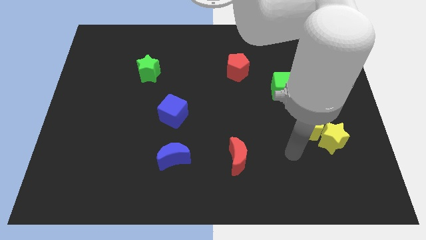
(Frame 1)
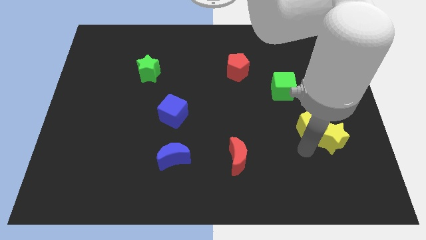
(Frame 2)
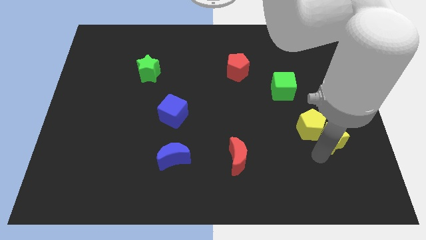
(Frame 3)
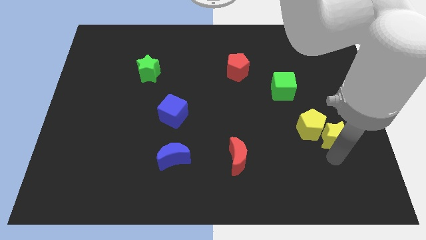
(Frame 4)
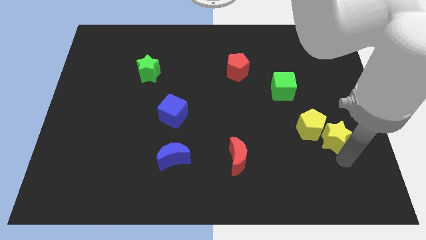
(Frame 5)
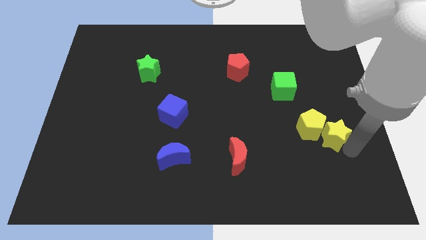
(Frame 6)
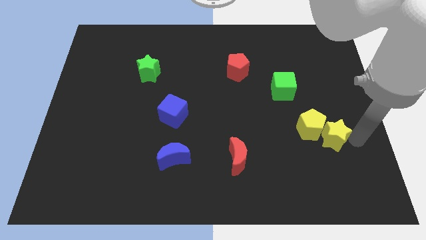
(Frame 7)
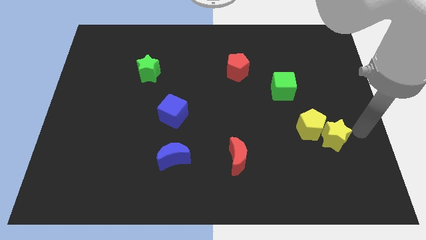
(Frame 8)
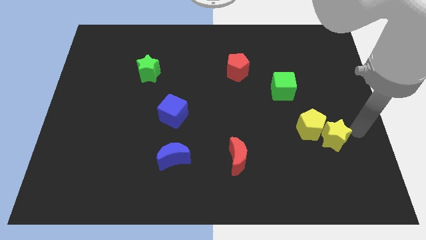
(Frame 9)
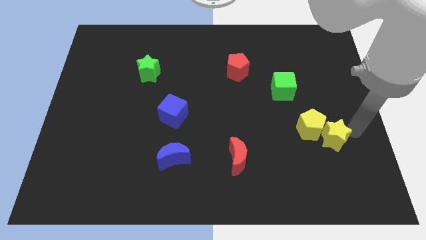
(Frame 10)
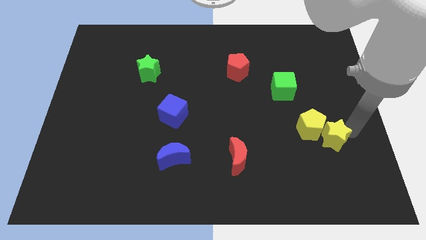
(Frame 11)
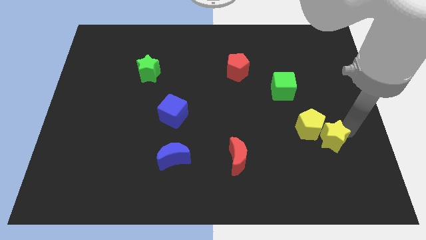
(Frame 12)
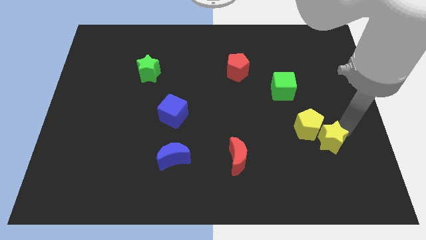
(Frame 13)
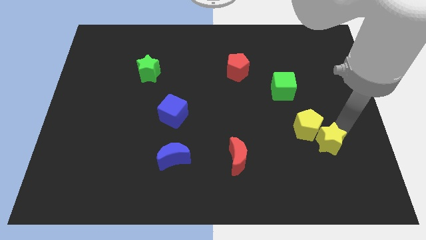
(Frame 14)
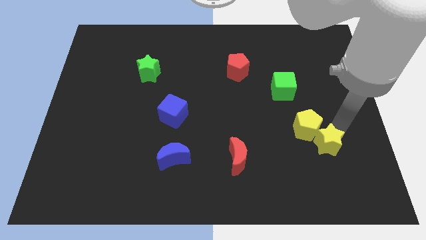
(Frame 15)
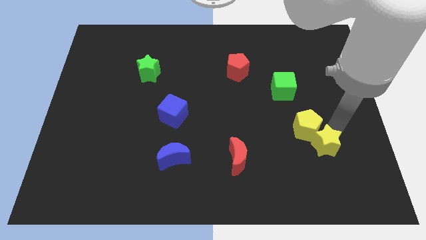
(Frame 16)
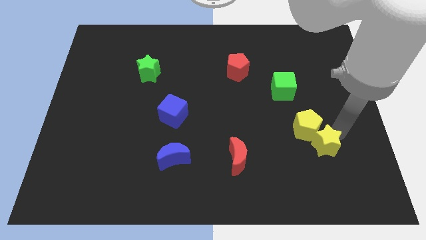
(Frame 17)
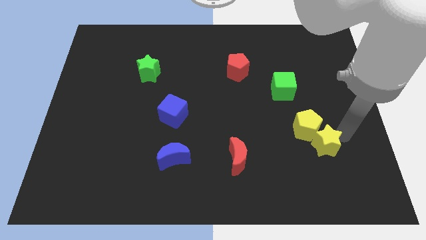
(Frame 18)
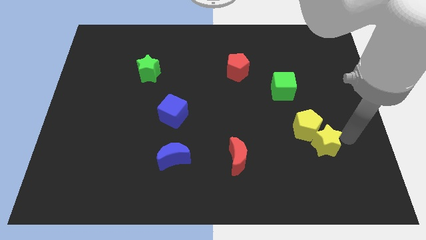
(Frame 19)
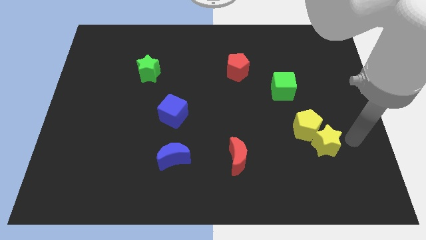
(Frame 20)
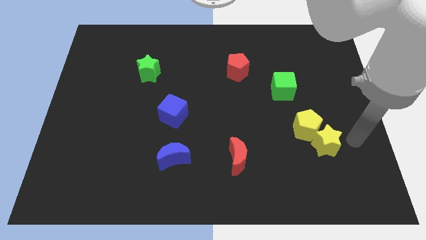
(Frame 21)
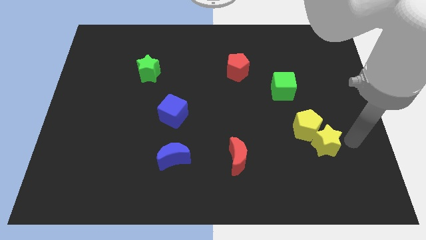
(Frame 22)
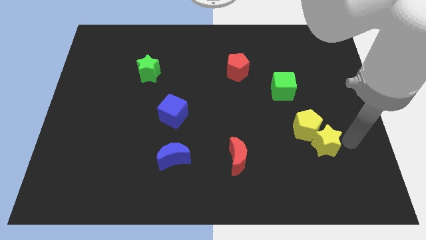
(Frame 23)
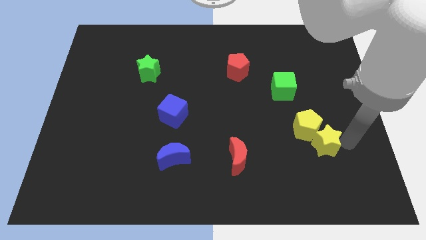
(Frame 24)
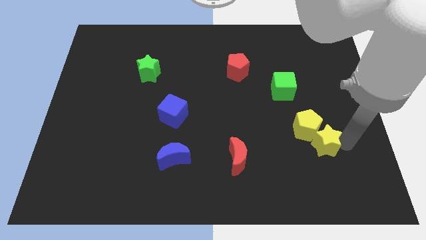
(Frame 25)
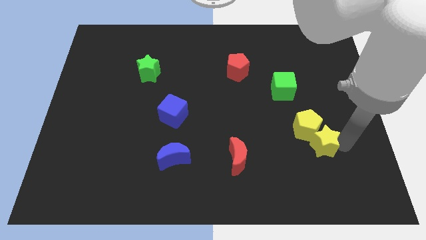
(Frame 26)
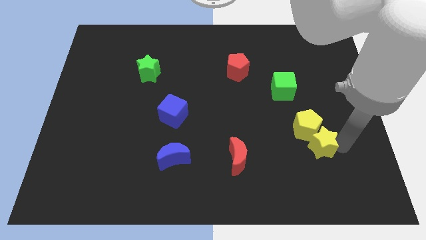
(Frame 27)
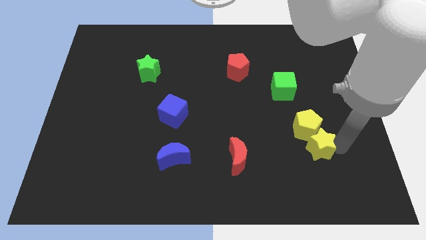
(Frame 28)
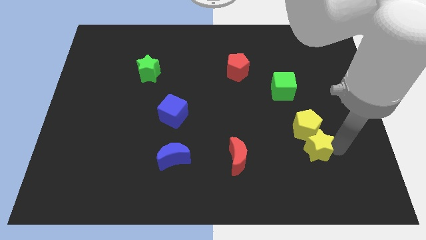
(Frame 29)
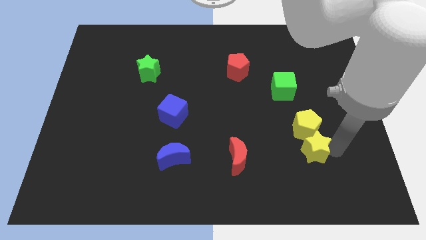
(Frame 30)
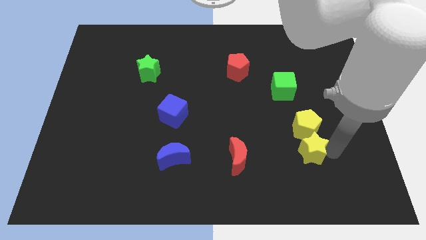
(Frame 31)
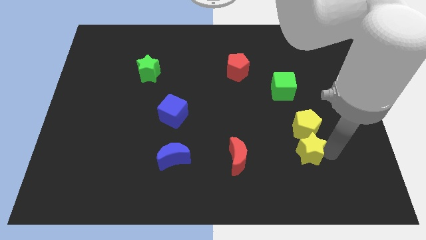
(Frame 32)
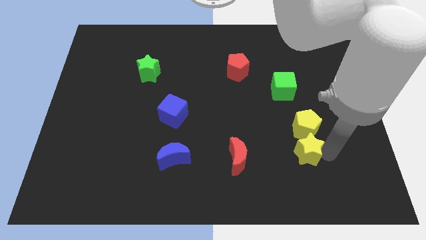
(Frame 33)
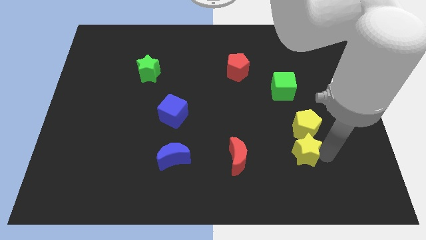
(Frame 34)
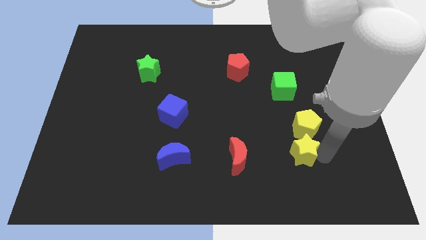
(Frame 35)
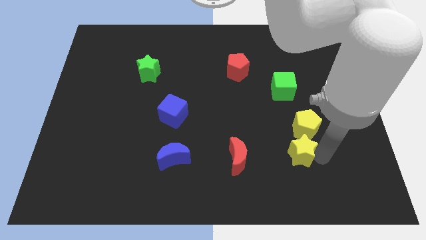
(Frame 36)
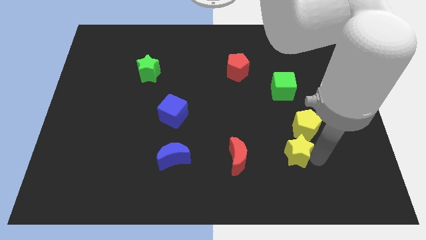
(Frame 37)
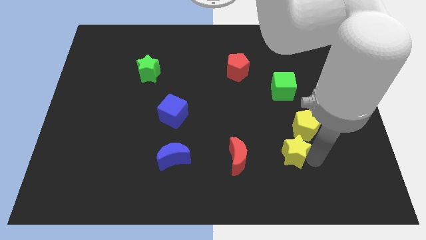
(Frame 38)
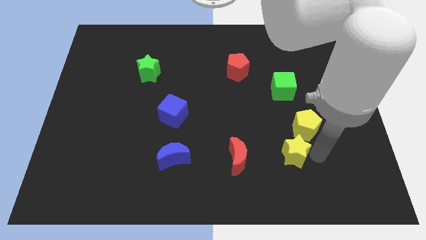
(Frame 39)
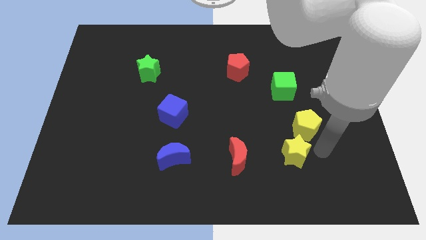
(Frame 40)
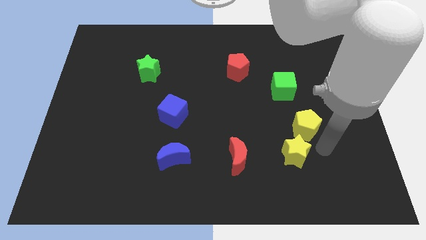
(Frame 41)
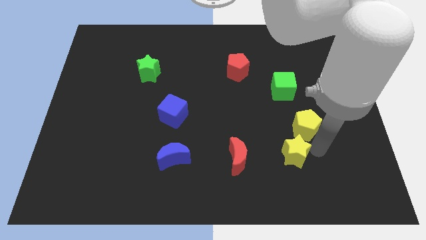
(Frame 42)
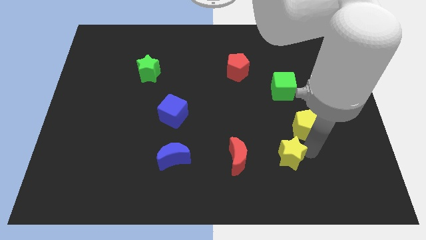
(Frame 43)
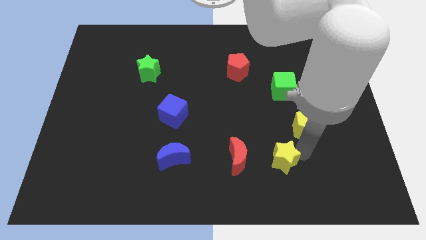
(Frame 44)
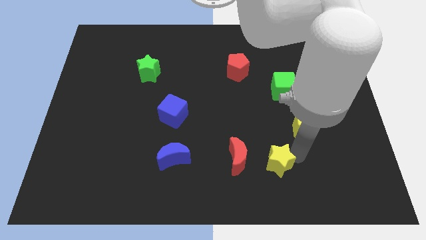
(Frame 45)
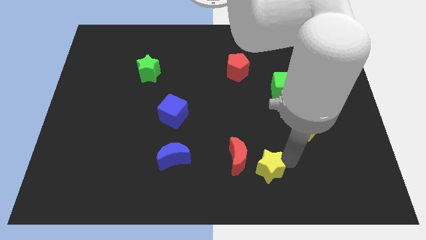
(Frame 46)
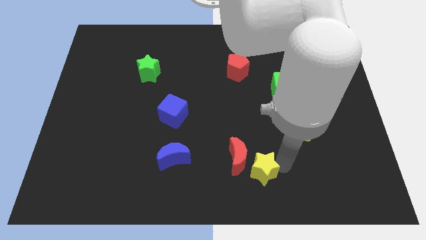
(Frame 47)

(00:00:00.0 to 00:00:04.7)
slide the yellow star towards the red moon

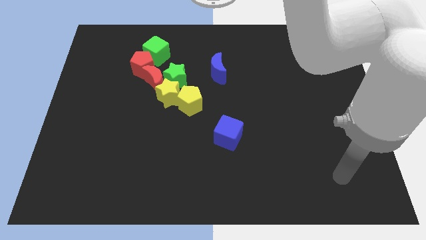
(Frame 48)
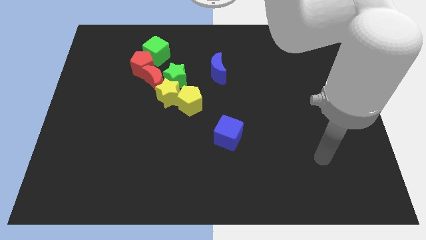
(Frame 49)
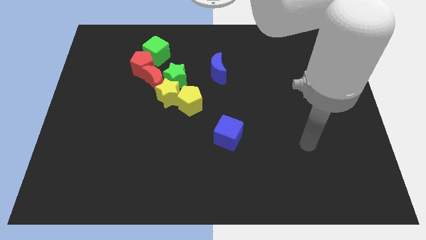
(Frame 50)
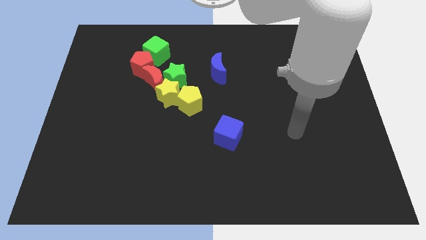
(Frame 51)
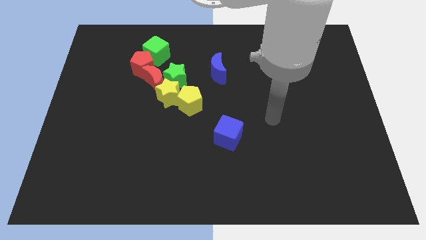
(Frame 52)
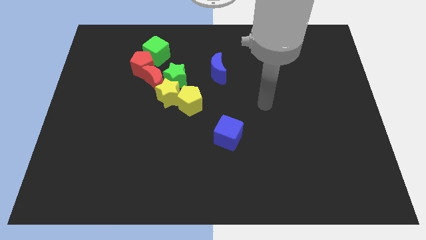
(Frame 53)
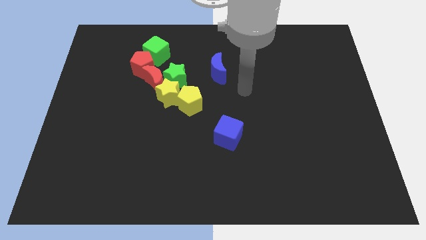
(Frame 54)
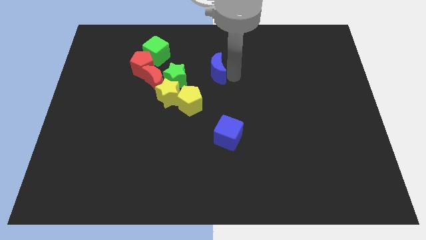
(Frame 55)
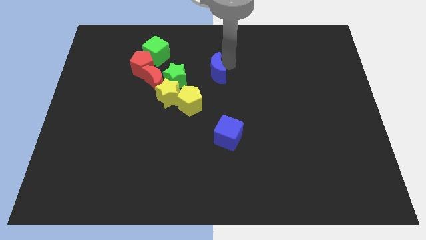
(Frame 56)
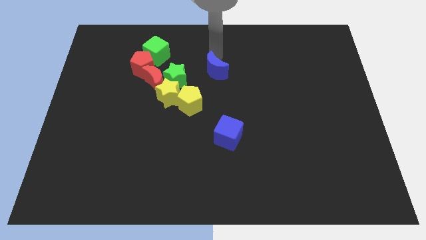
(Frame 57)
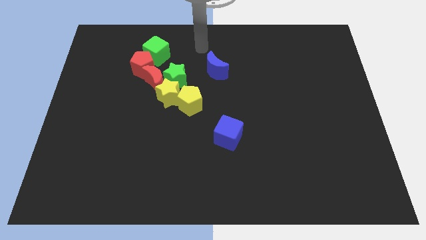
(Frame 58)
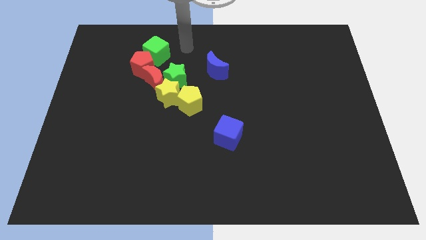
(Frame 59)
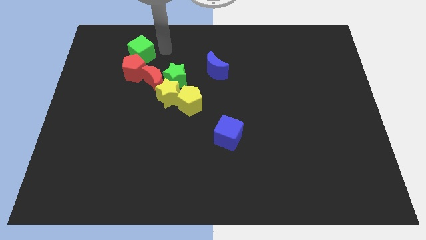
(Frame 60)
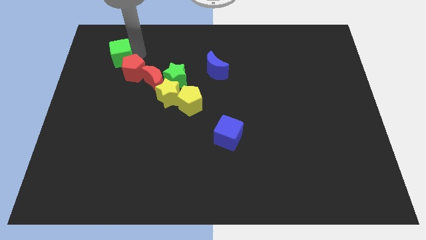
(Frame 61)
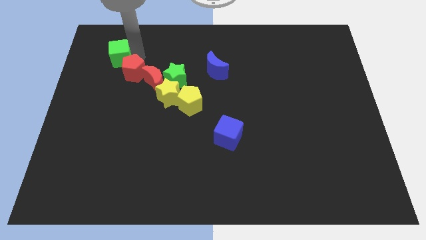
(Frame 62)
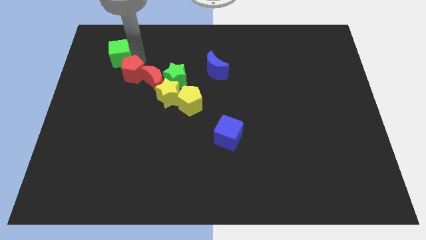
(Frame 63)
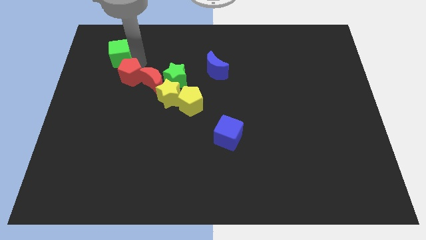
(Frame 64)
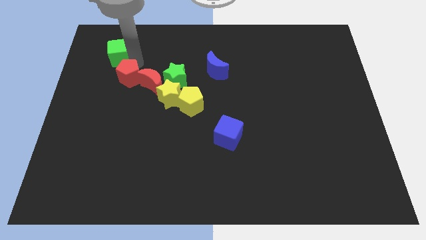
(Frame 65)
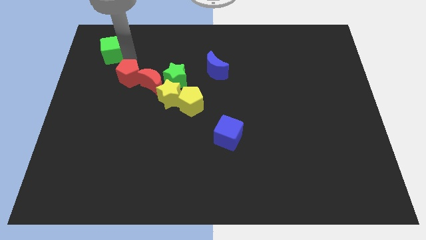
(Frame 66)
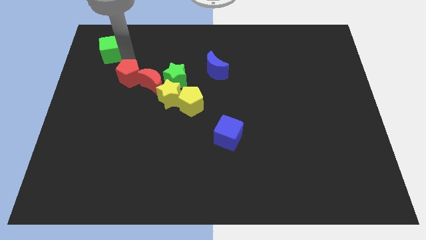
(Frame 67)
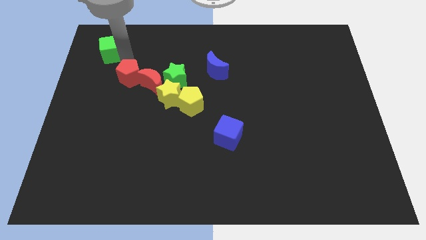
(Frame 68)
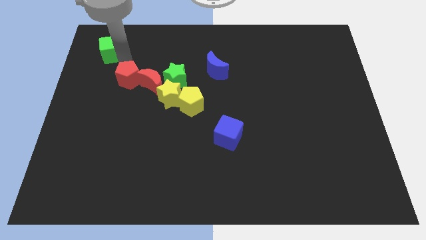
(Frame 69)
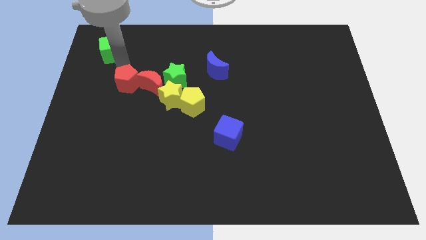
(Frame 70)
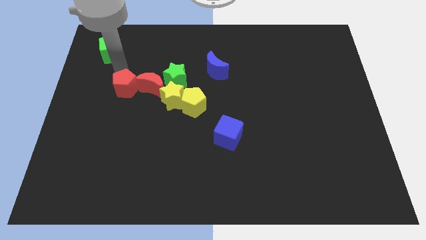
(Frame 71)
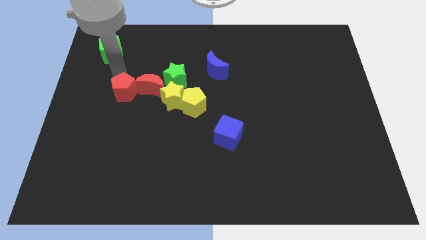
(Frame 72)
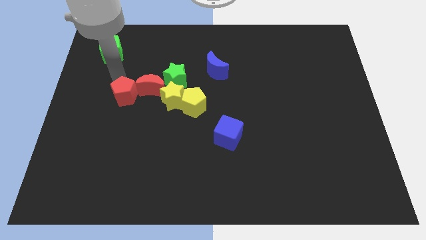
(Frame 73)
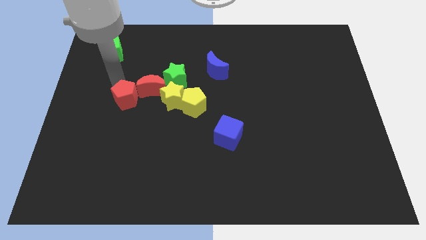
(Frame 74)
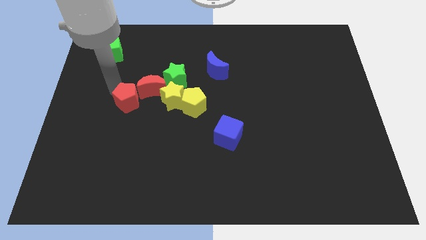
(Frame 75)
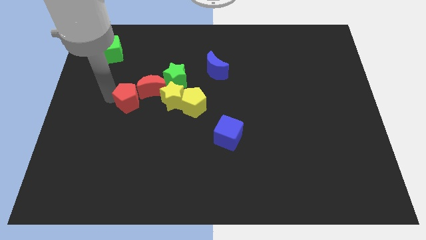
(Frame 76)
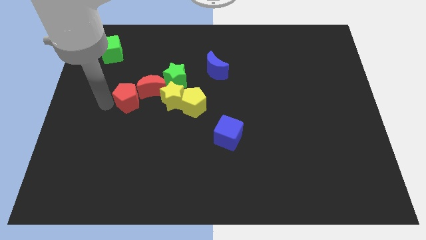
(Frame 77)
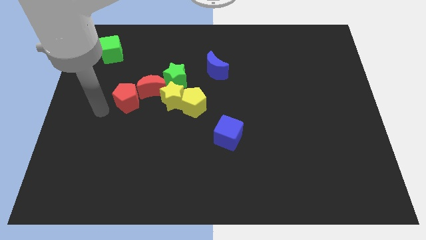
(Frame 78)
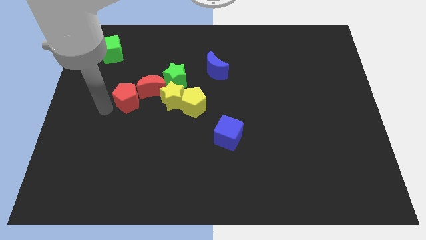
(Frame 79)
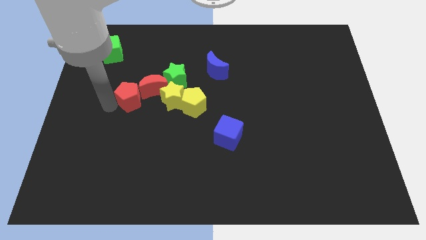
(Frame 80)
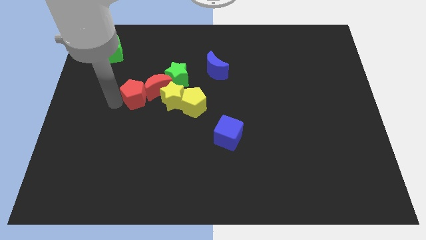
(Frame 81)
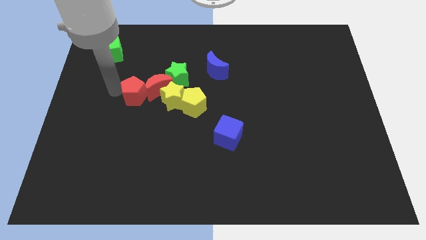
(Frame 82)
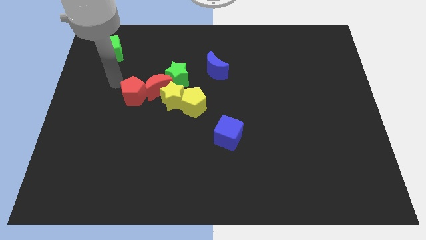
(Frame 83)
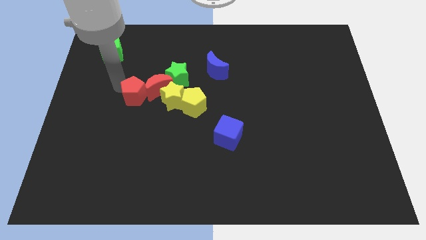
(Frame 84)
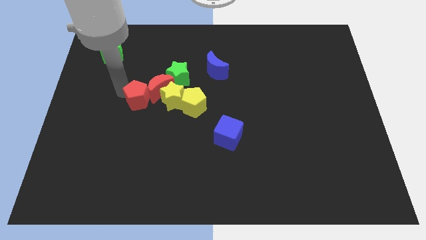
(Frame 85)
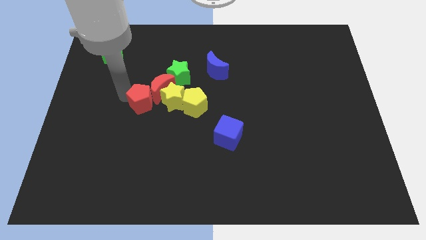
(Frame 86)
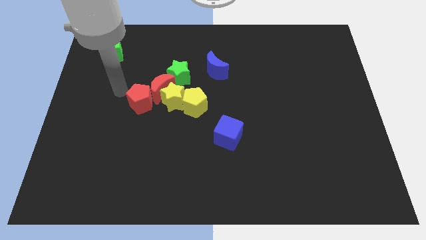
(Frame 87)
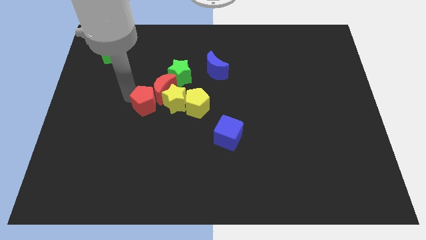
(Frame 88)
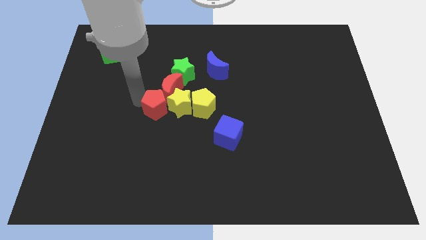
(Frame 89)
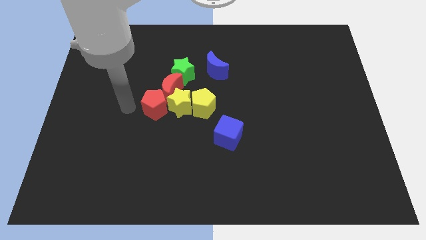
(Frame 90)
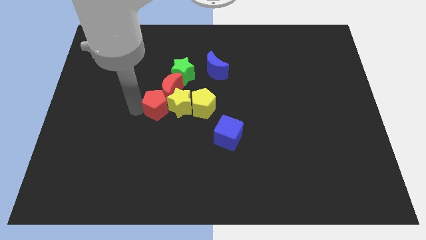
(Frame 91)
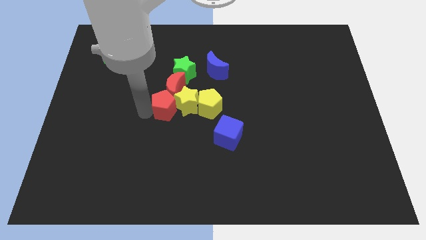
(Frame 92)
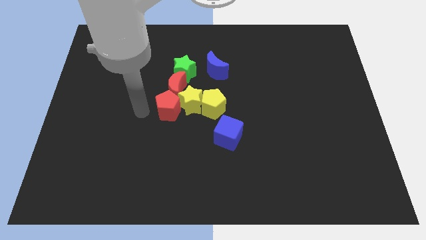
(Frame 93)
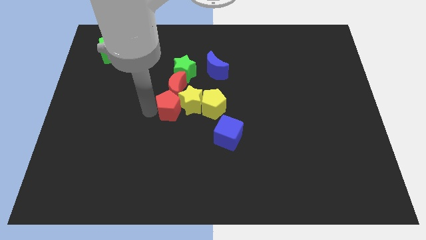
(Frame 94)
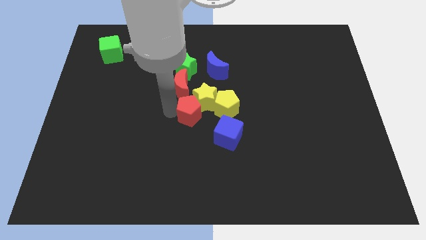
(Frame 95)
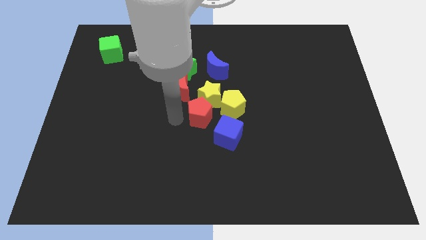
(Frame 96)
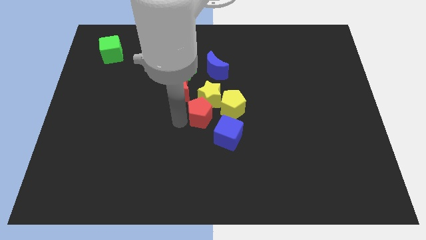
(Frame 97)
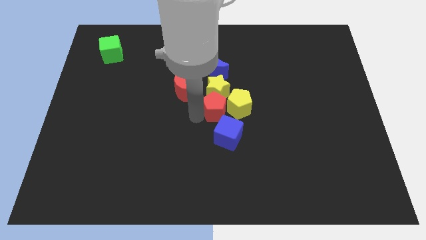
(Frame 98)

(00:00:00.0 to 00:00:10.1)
push the red pentagon towards the yellow pentagon
